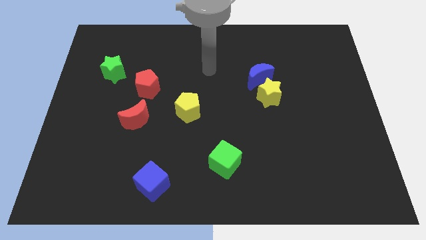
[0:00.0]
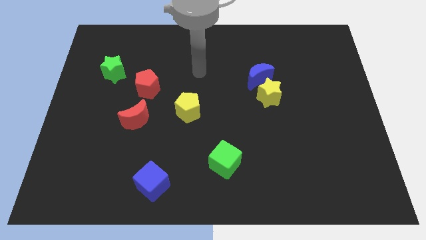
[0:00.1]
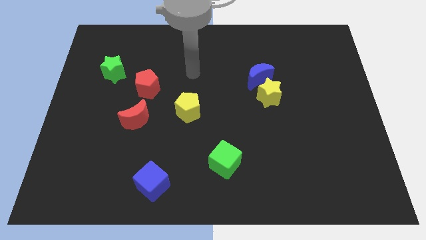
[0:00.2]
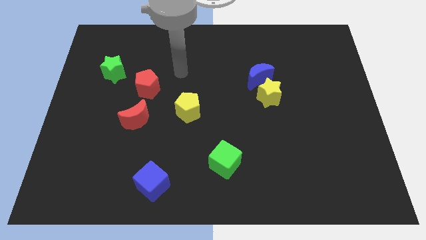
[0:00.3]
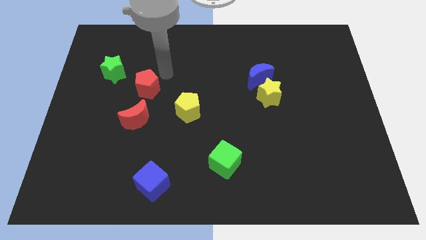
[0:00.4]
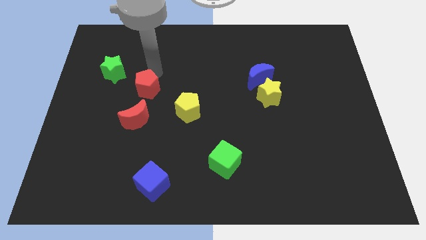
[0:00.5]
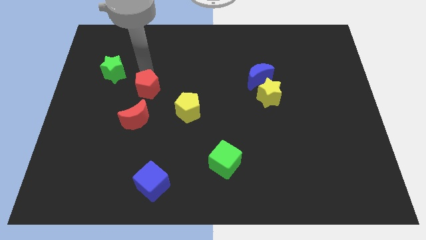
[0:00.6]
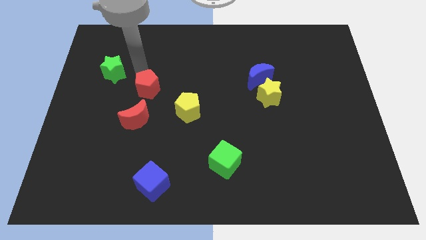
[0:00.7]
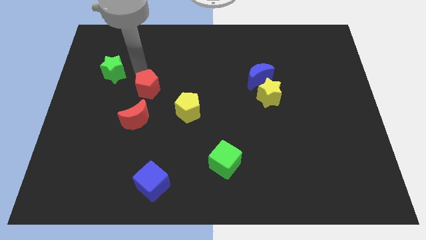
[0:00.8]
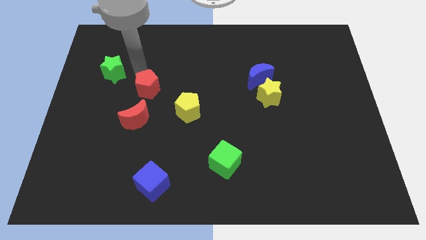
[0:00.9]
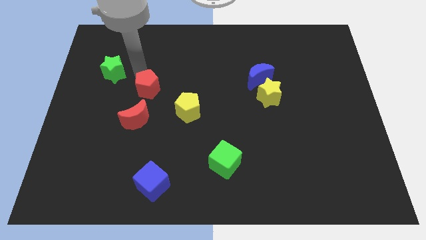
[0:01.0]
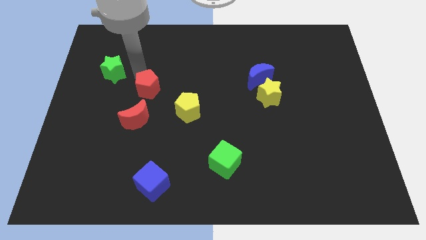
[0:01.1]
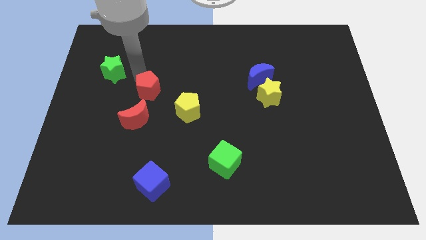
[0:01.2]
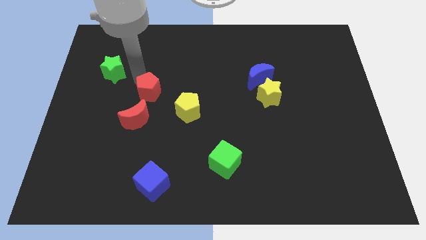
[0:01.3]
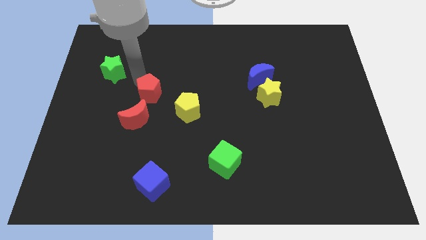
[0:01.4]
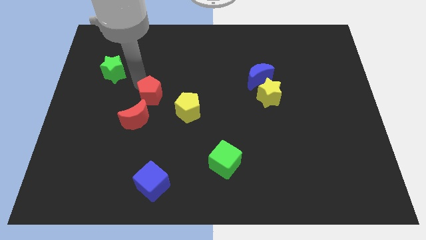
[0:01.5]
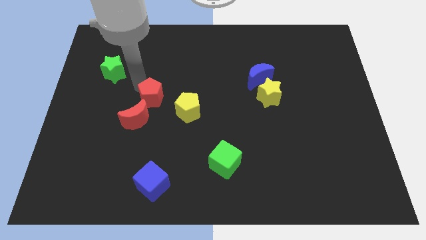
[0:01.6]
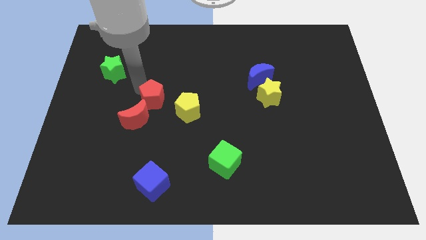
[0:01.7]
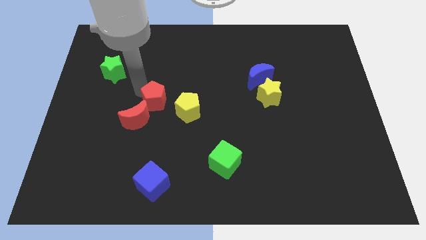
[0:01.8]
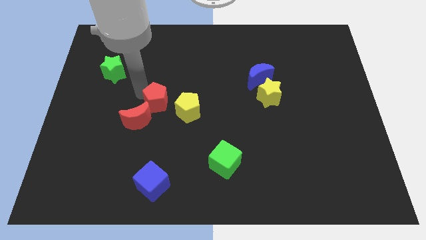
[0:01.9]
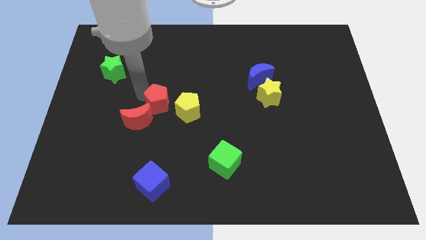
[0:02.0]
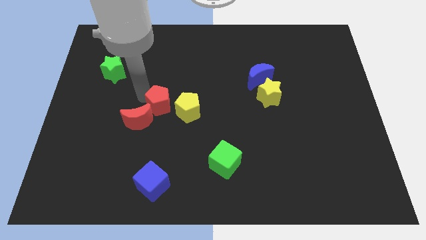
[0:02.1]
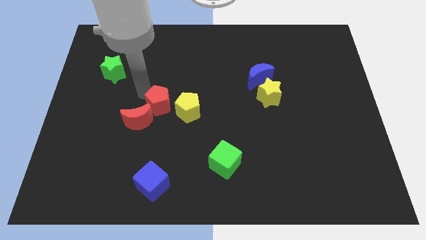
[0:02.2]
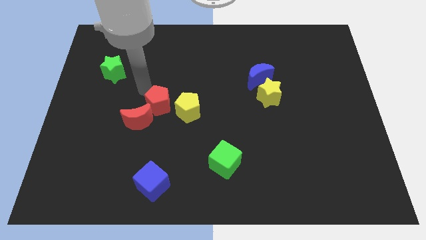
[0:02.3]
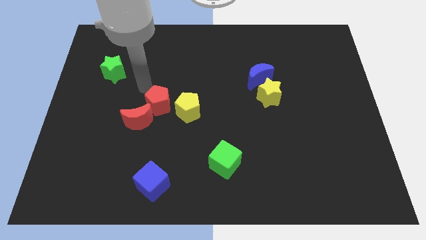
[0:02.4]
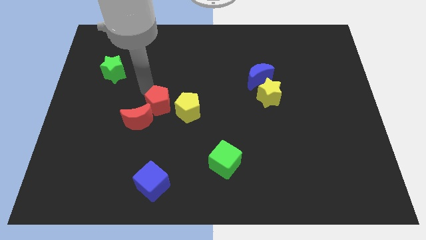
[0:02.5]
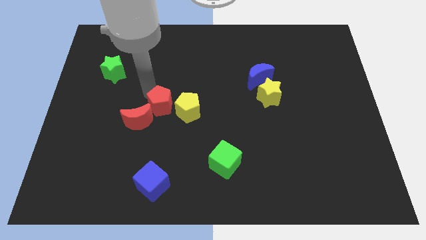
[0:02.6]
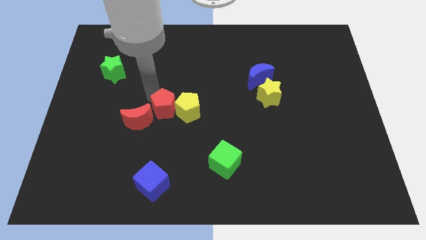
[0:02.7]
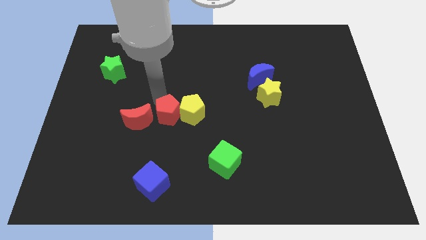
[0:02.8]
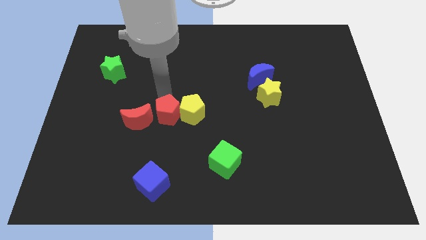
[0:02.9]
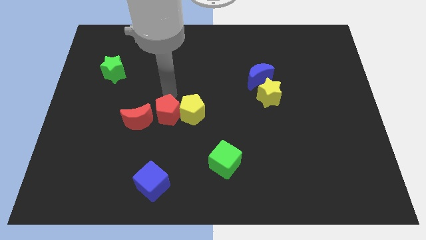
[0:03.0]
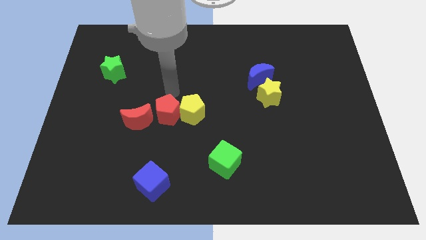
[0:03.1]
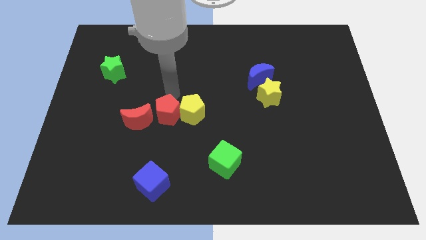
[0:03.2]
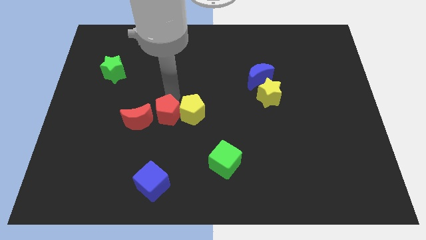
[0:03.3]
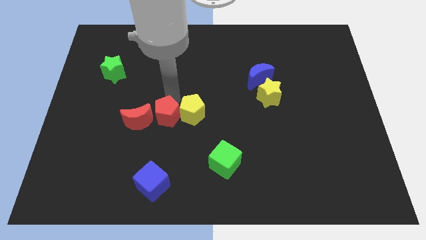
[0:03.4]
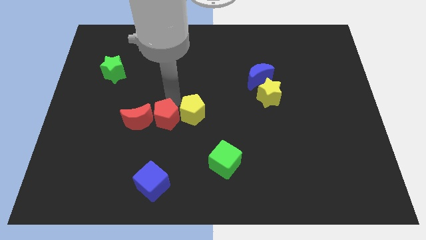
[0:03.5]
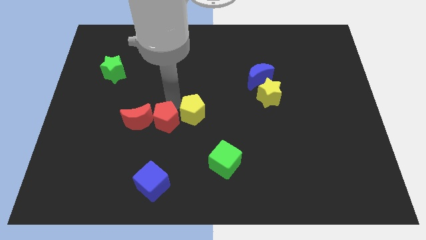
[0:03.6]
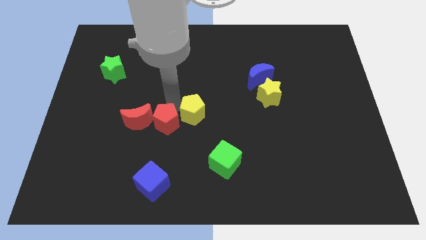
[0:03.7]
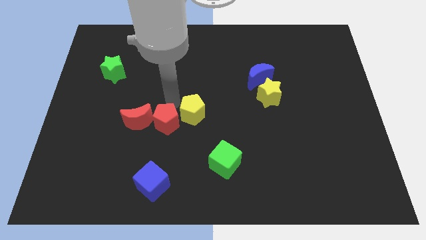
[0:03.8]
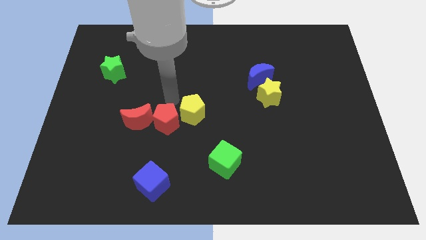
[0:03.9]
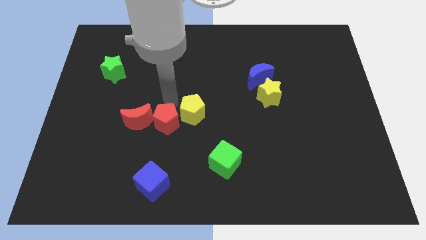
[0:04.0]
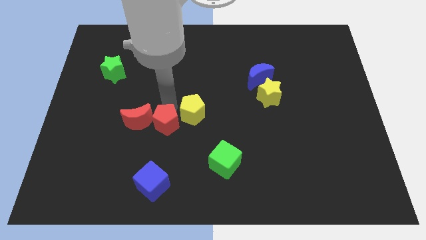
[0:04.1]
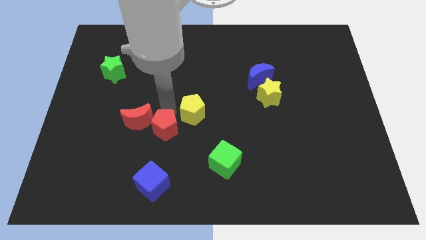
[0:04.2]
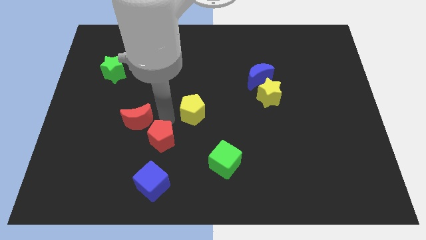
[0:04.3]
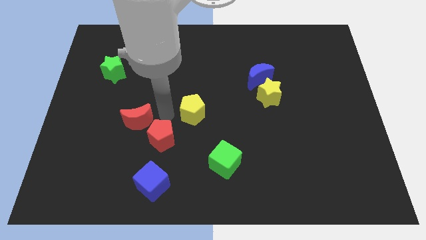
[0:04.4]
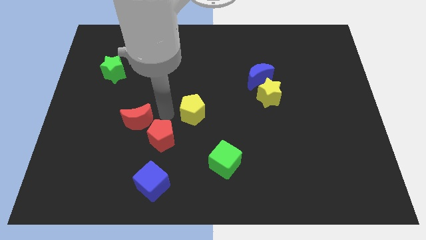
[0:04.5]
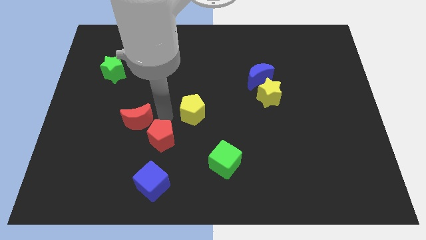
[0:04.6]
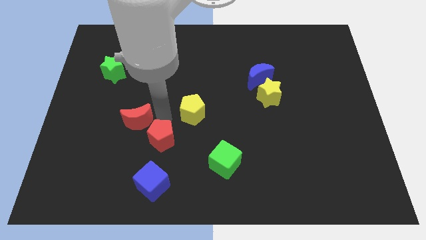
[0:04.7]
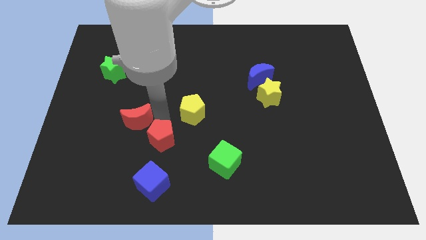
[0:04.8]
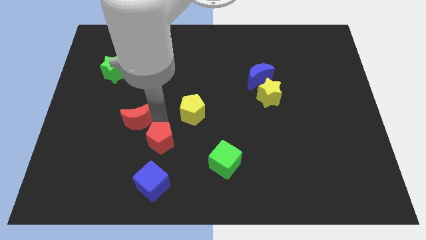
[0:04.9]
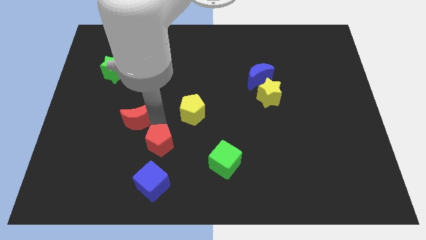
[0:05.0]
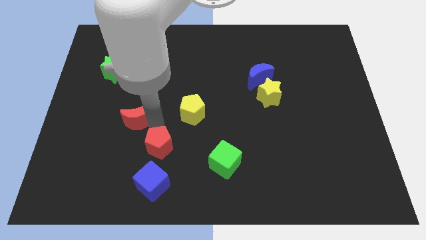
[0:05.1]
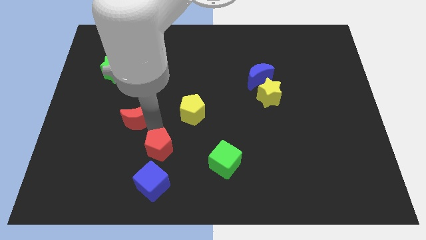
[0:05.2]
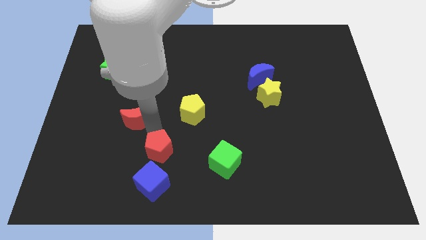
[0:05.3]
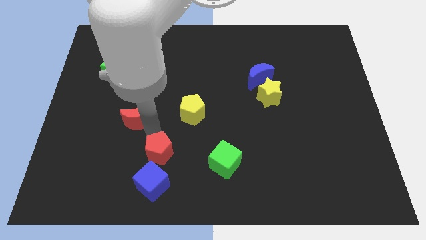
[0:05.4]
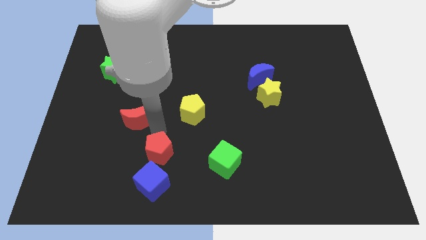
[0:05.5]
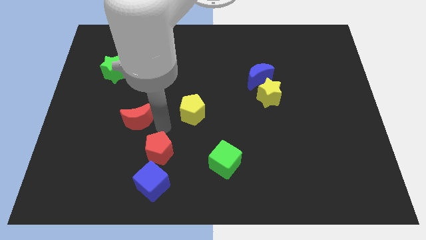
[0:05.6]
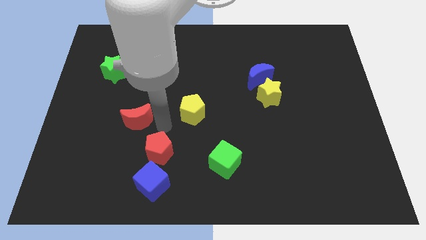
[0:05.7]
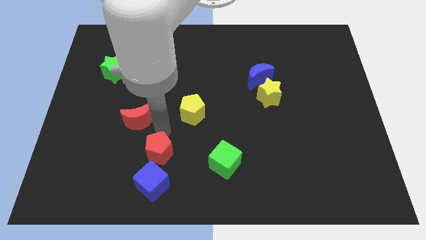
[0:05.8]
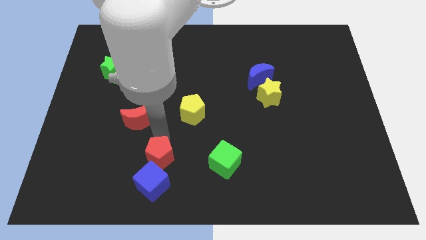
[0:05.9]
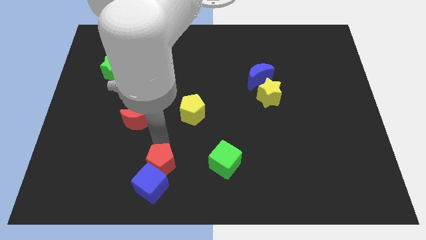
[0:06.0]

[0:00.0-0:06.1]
put the red pentagon towards the blue cube

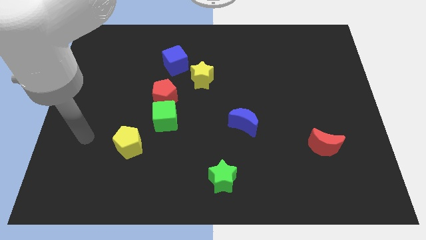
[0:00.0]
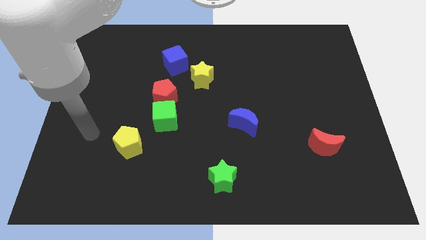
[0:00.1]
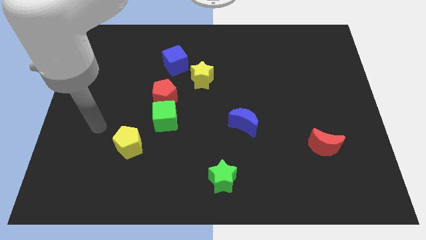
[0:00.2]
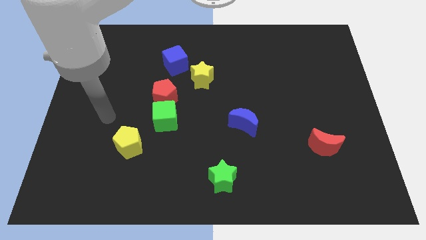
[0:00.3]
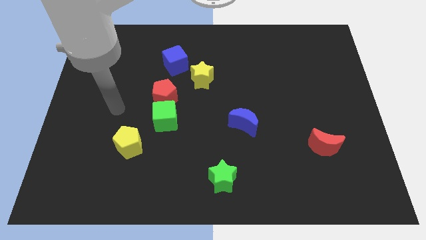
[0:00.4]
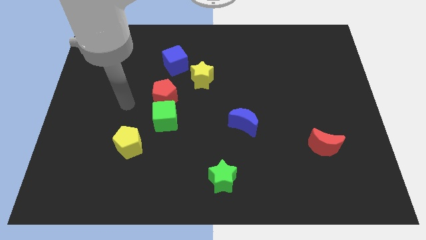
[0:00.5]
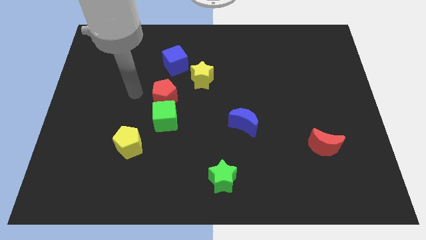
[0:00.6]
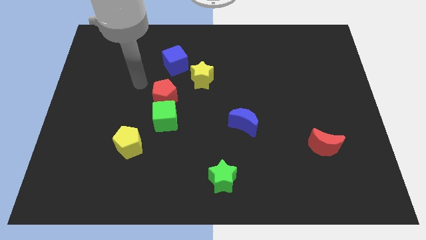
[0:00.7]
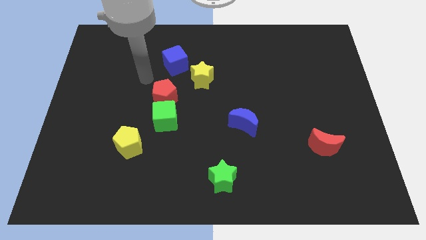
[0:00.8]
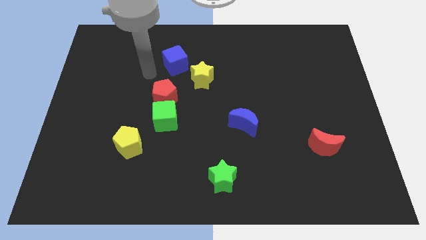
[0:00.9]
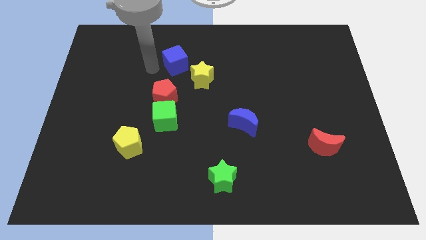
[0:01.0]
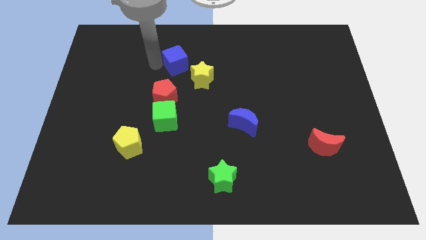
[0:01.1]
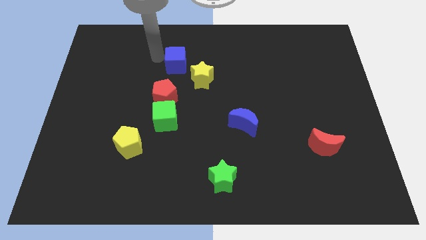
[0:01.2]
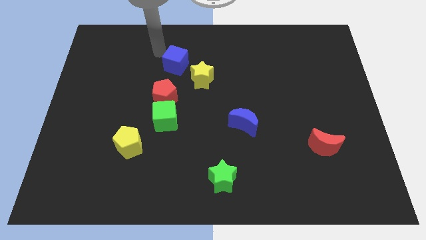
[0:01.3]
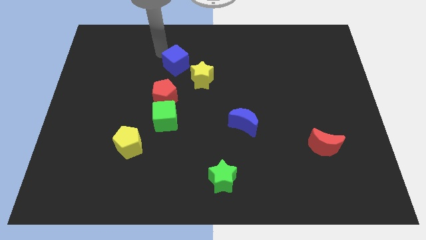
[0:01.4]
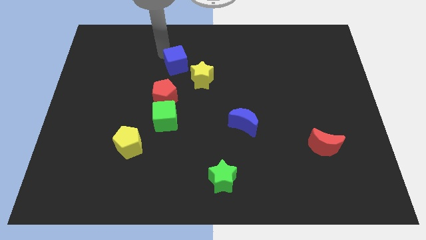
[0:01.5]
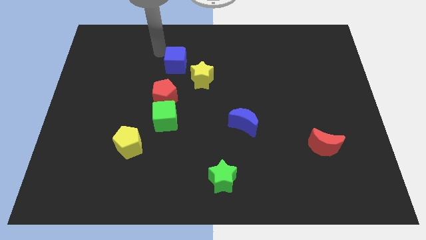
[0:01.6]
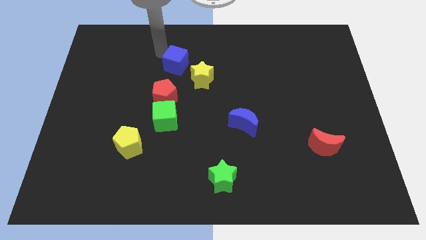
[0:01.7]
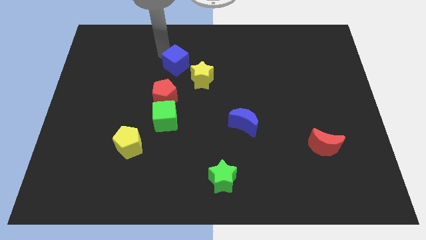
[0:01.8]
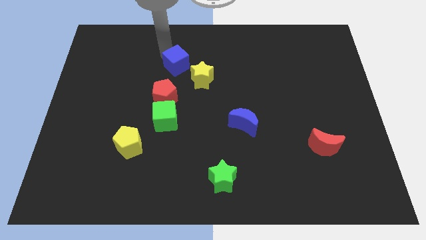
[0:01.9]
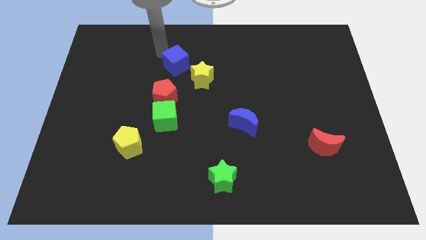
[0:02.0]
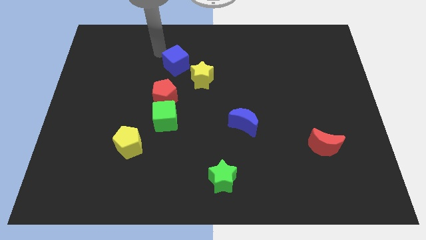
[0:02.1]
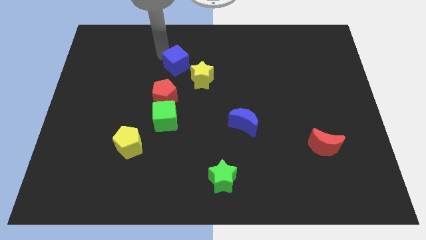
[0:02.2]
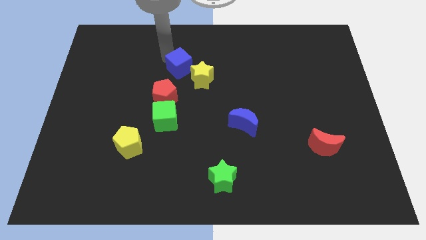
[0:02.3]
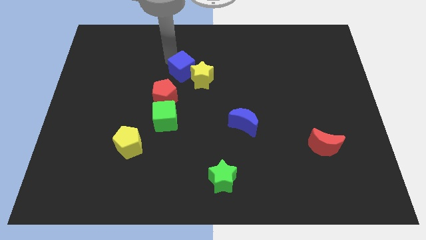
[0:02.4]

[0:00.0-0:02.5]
move the blue cube close to the yellow star
